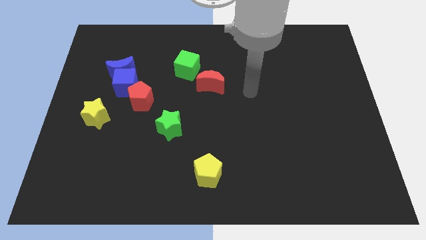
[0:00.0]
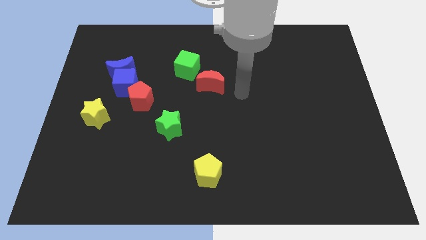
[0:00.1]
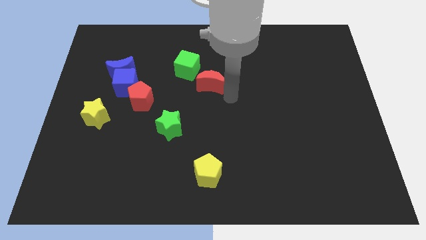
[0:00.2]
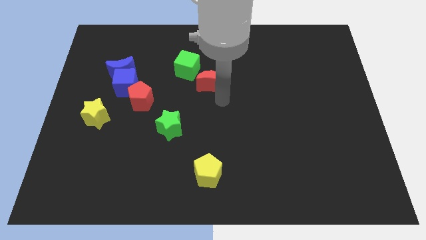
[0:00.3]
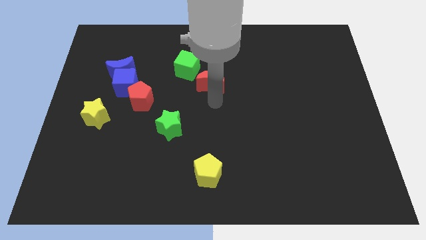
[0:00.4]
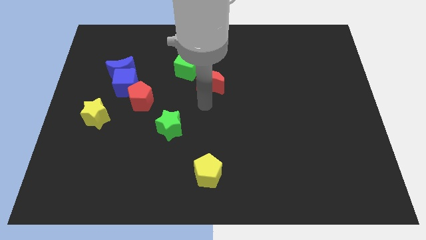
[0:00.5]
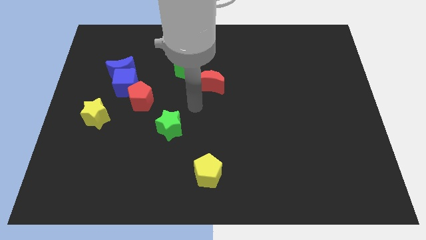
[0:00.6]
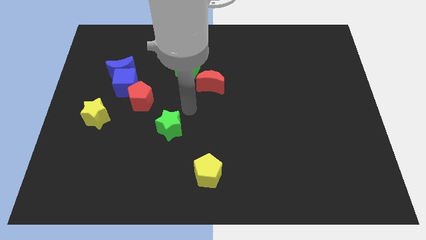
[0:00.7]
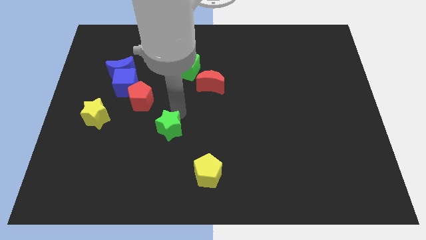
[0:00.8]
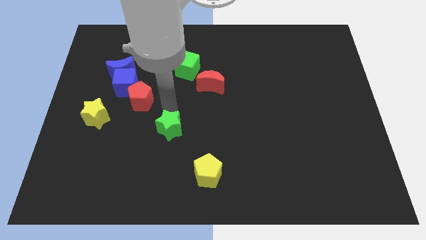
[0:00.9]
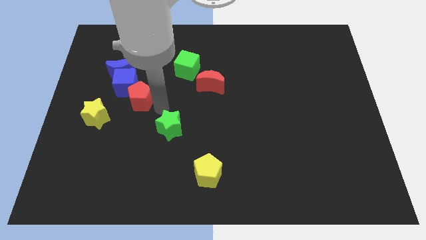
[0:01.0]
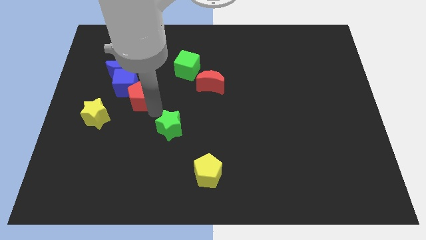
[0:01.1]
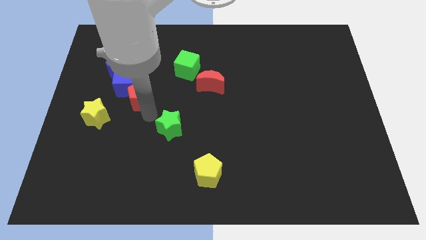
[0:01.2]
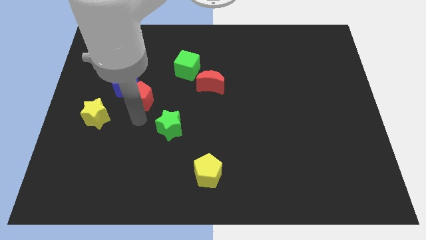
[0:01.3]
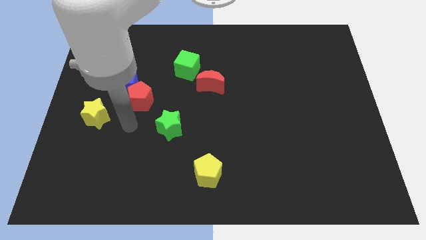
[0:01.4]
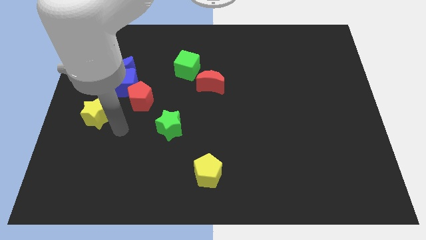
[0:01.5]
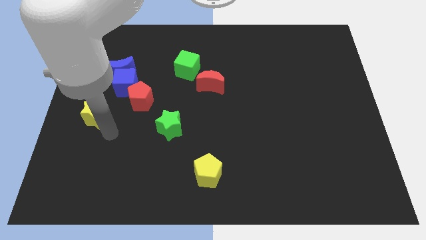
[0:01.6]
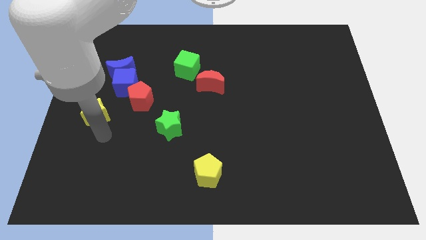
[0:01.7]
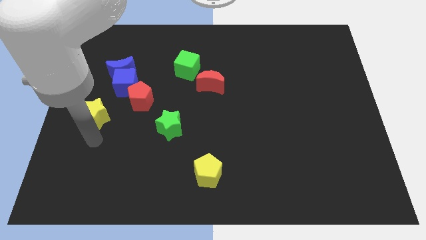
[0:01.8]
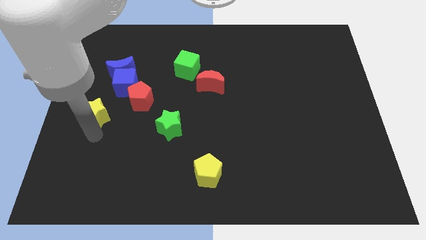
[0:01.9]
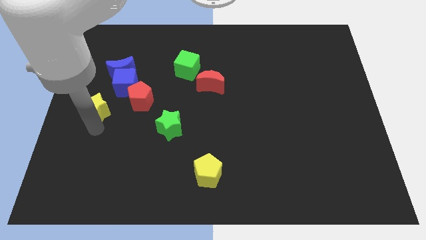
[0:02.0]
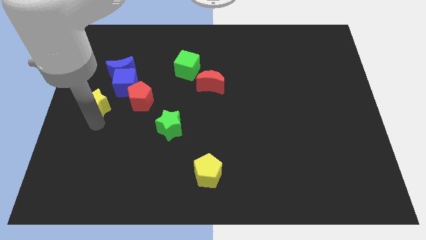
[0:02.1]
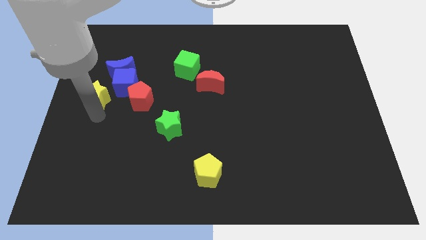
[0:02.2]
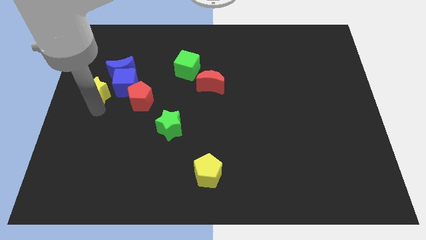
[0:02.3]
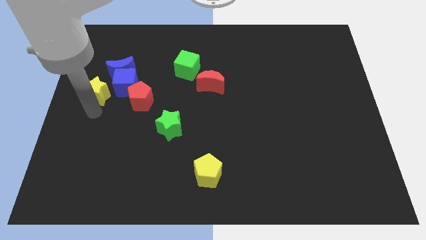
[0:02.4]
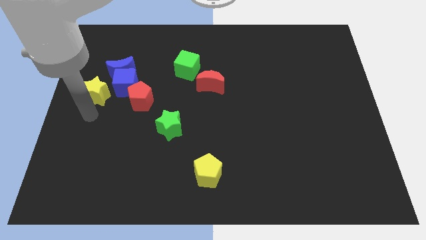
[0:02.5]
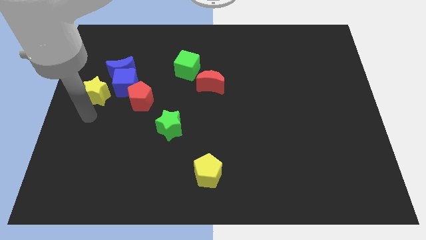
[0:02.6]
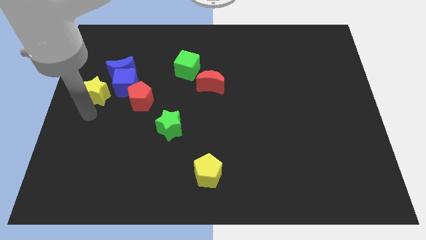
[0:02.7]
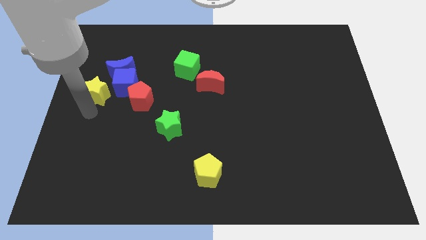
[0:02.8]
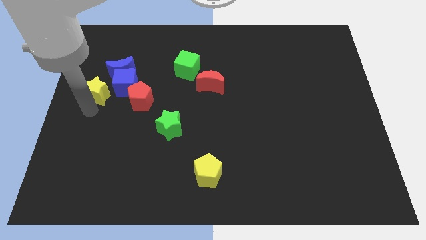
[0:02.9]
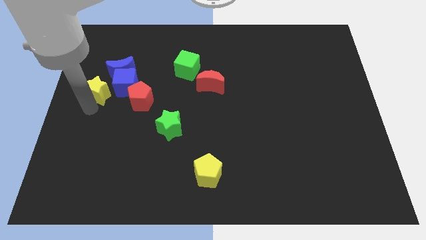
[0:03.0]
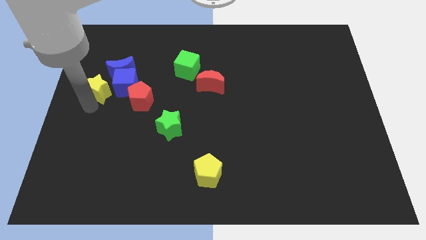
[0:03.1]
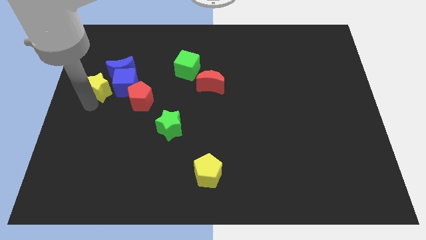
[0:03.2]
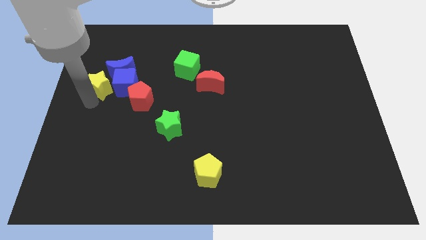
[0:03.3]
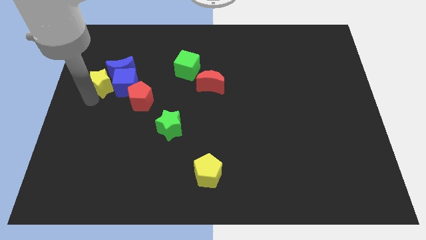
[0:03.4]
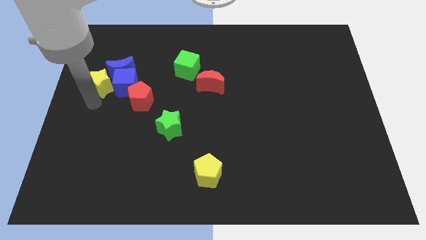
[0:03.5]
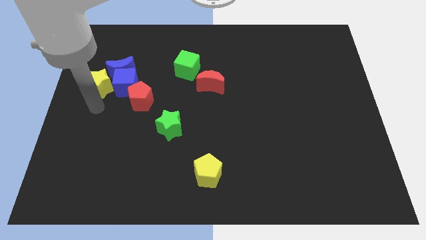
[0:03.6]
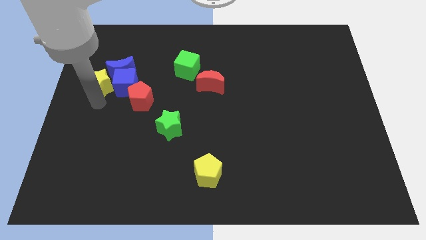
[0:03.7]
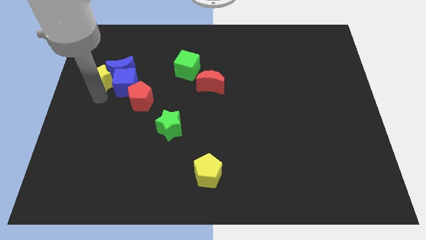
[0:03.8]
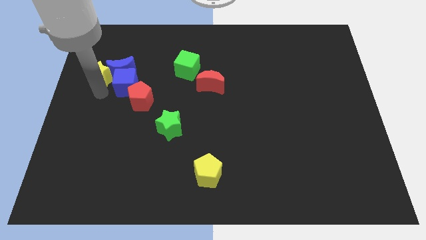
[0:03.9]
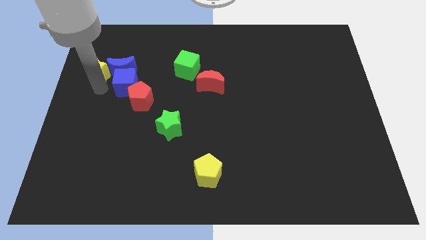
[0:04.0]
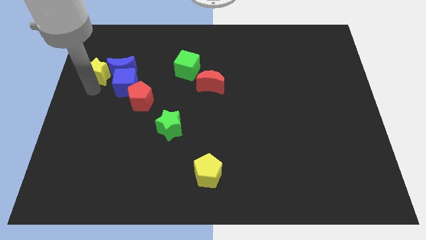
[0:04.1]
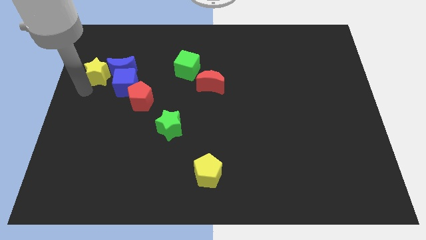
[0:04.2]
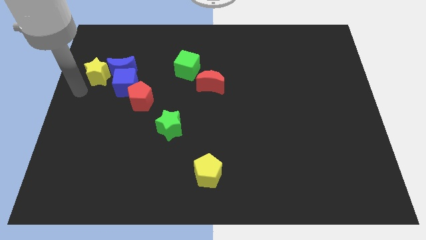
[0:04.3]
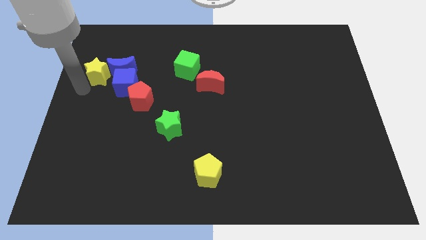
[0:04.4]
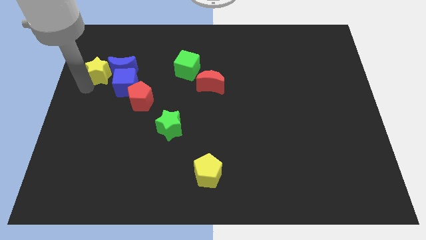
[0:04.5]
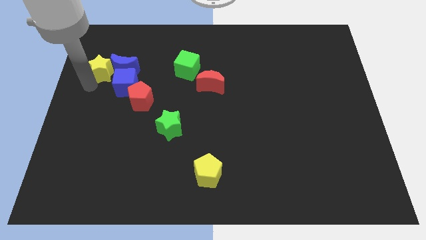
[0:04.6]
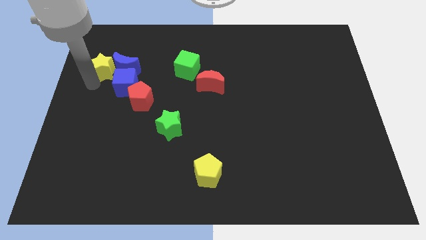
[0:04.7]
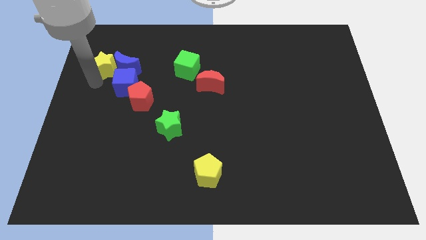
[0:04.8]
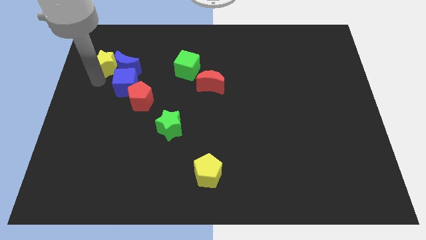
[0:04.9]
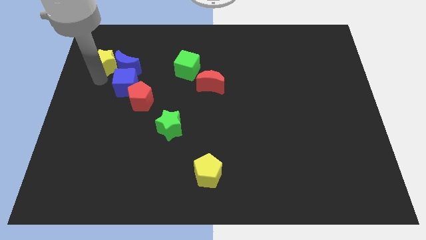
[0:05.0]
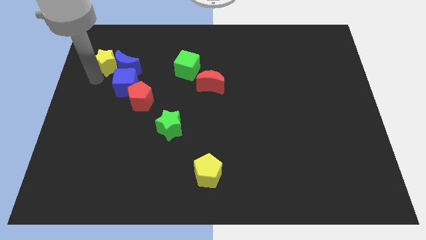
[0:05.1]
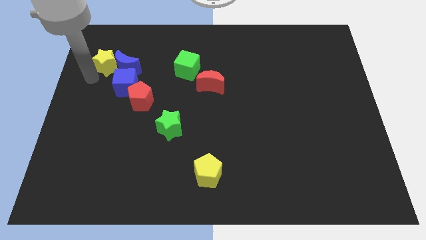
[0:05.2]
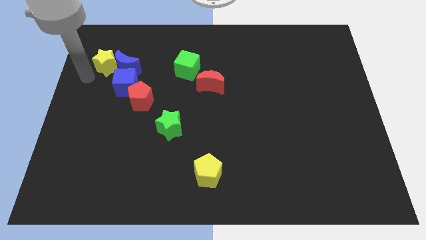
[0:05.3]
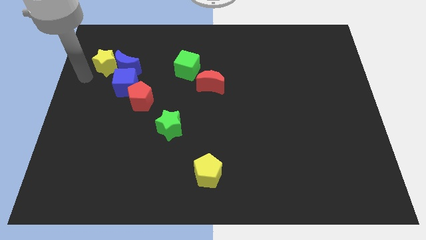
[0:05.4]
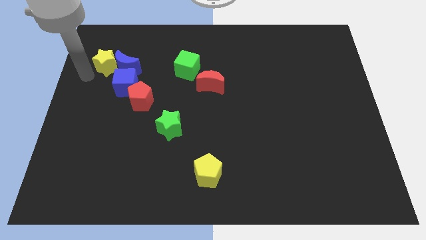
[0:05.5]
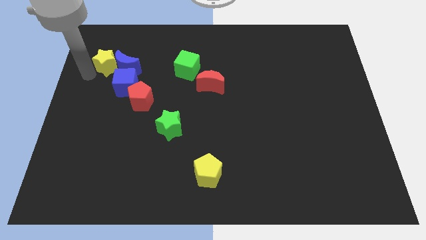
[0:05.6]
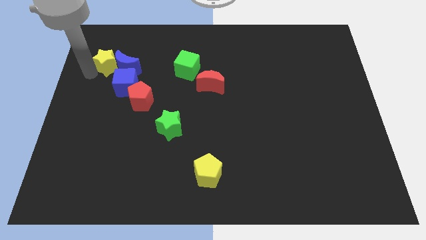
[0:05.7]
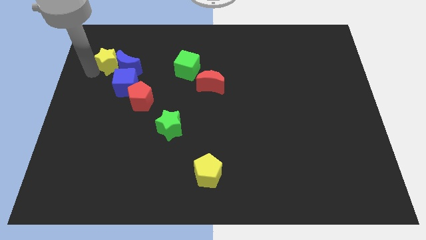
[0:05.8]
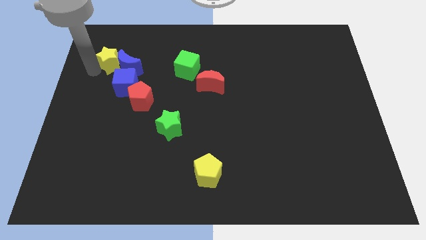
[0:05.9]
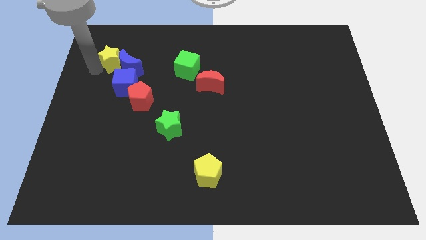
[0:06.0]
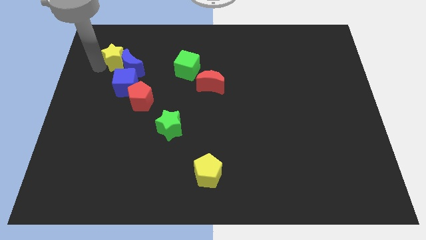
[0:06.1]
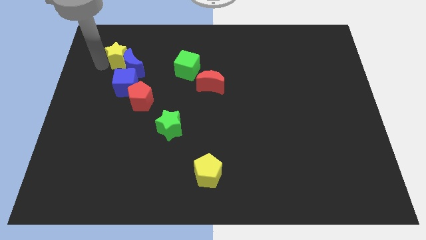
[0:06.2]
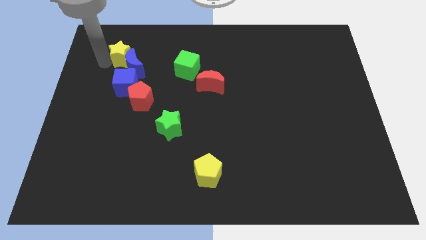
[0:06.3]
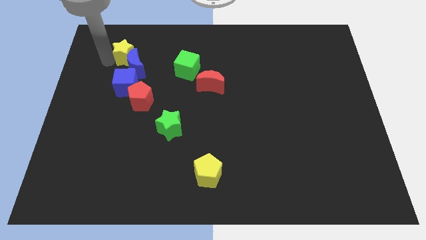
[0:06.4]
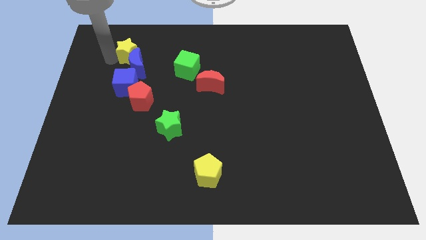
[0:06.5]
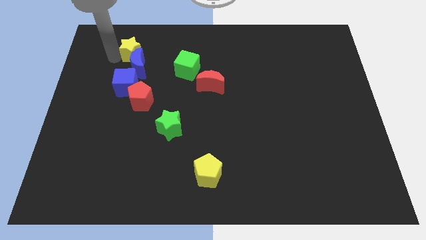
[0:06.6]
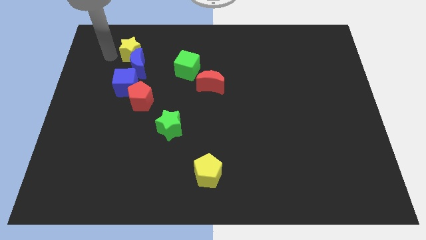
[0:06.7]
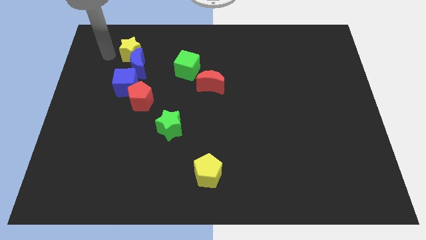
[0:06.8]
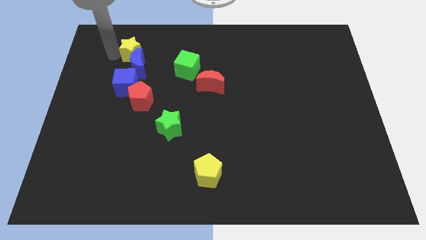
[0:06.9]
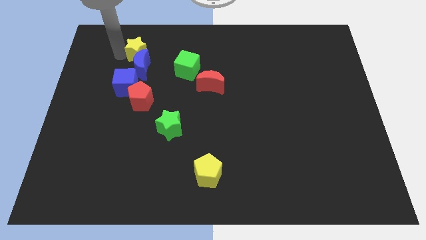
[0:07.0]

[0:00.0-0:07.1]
slide the yellow star to the top right of the blue moon

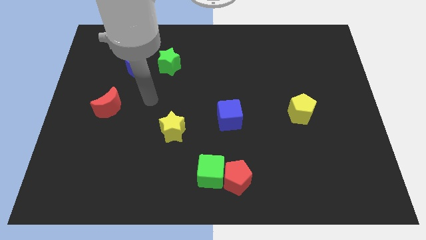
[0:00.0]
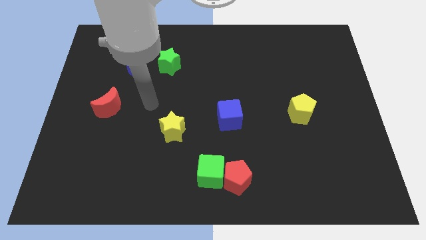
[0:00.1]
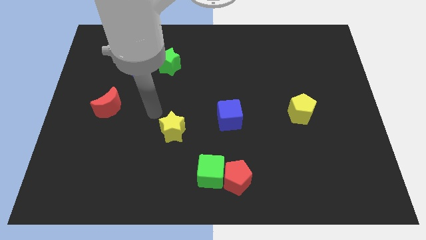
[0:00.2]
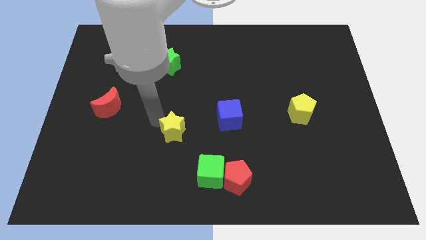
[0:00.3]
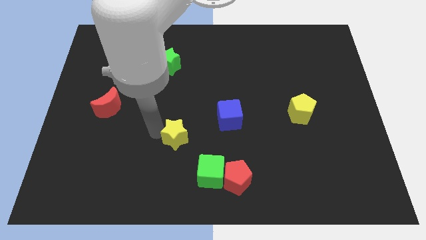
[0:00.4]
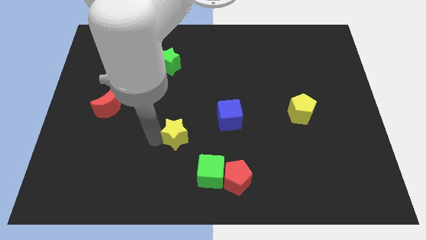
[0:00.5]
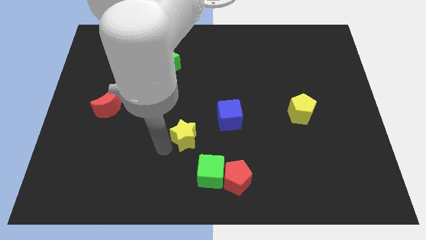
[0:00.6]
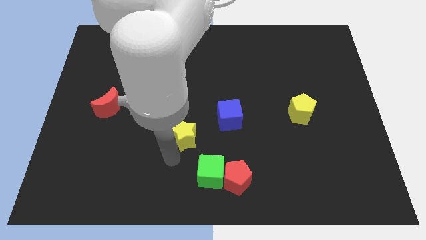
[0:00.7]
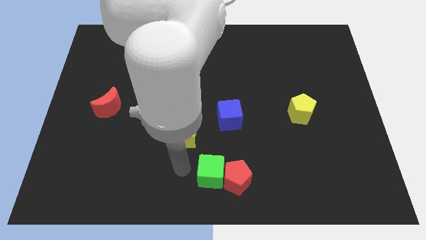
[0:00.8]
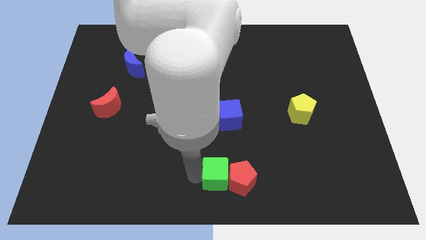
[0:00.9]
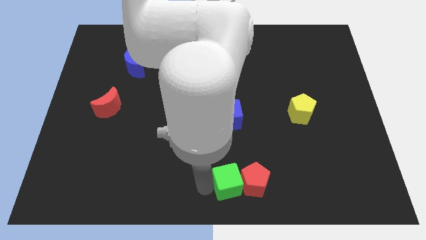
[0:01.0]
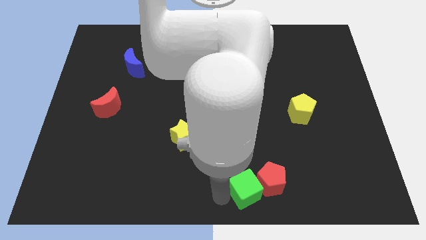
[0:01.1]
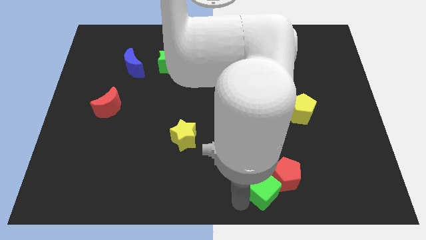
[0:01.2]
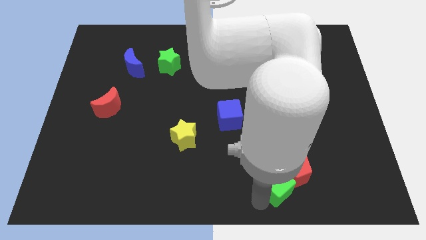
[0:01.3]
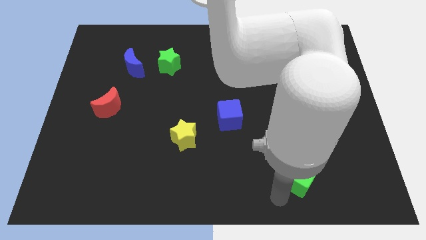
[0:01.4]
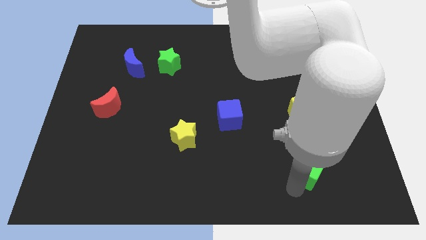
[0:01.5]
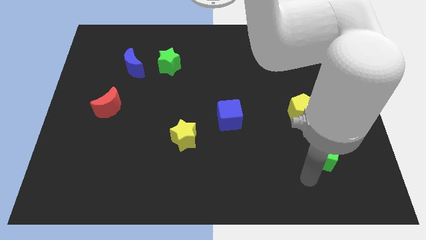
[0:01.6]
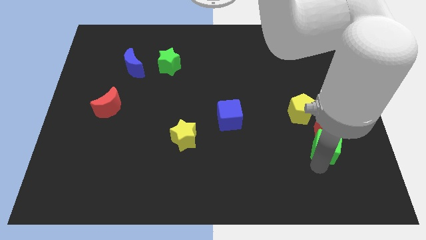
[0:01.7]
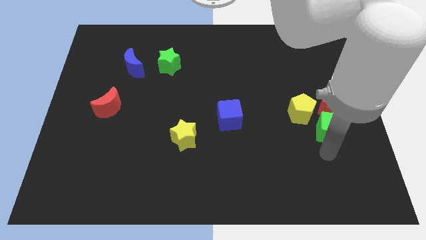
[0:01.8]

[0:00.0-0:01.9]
slide the red pentagon to the top right side of the yellow pentagon
